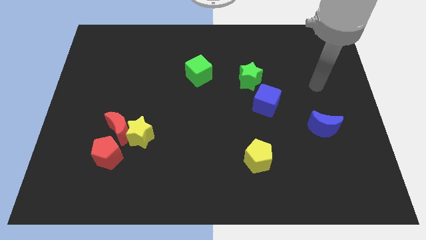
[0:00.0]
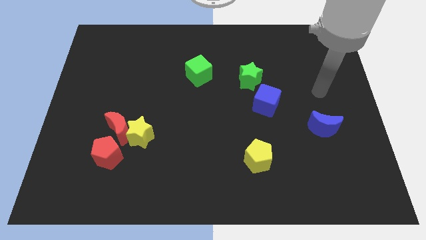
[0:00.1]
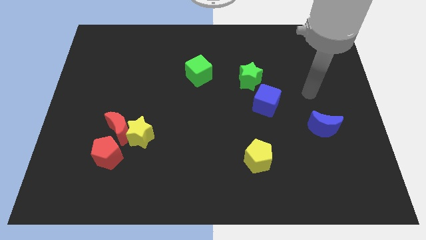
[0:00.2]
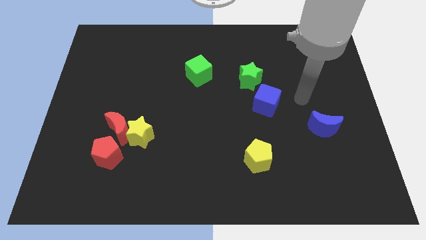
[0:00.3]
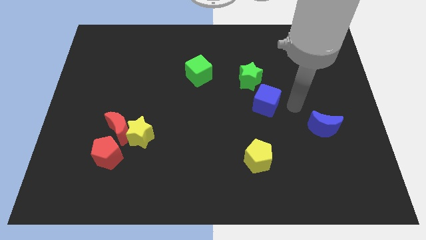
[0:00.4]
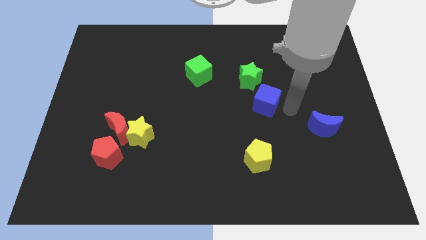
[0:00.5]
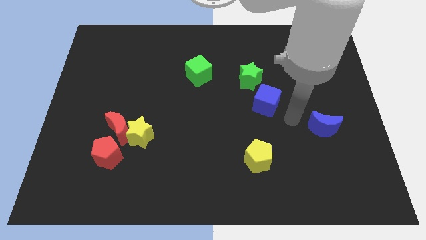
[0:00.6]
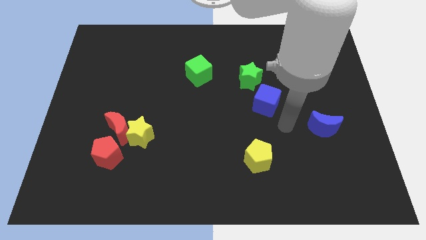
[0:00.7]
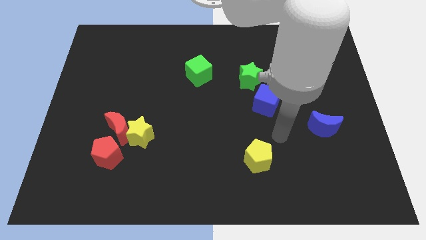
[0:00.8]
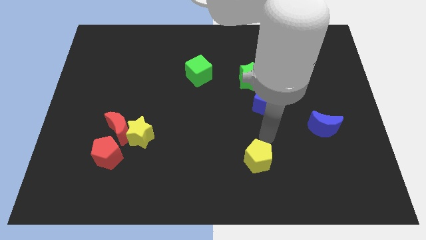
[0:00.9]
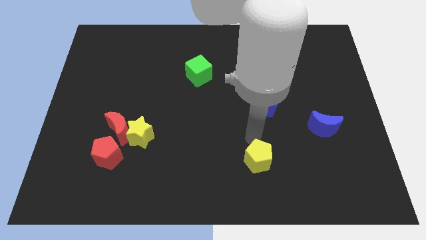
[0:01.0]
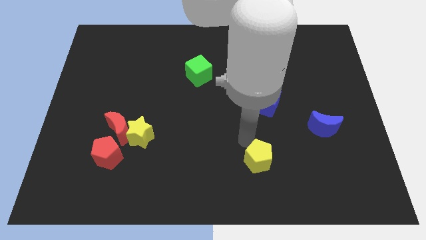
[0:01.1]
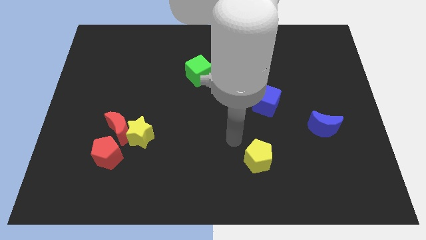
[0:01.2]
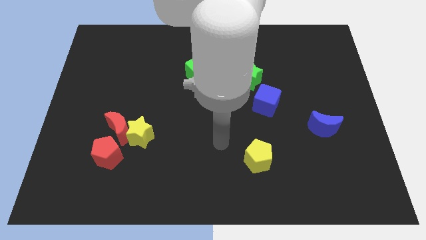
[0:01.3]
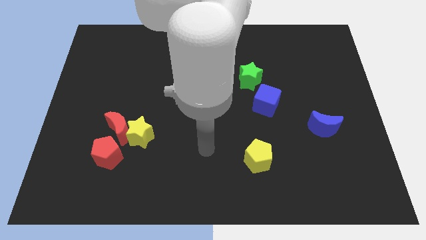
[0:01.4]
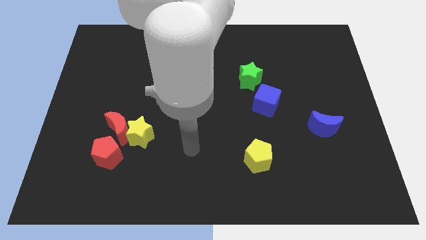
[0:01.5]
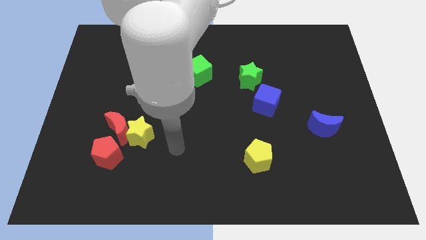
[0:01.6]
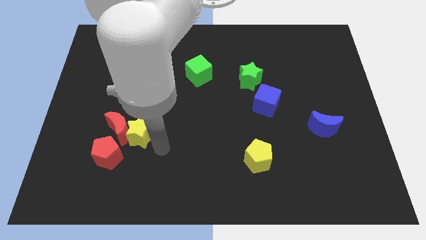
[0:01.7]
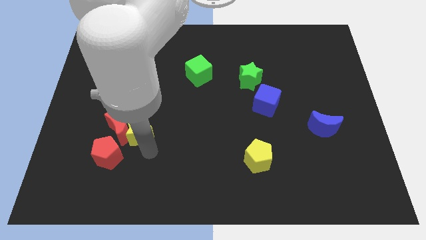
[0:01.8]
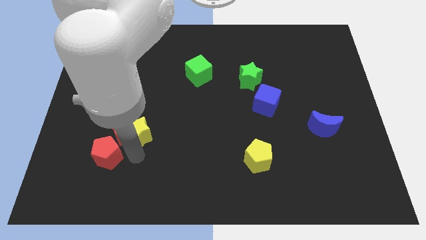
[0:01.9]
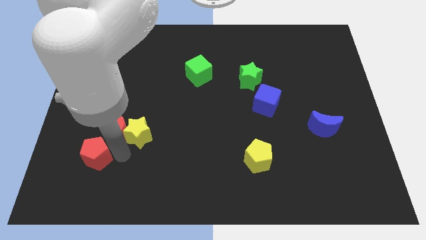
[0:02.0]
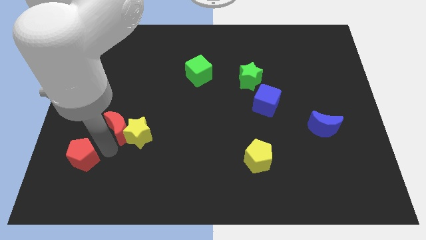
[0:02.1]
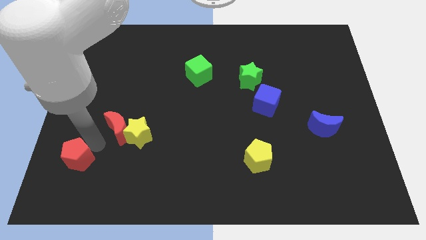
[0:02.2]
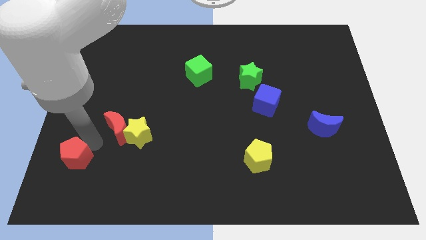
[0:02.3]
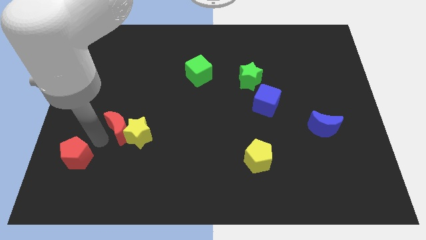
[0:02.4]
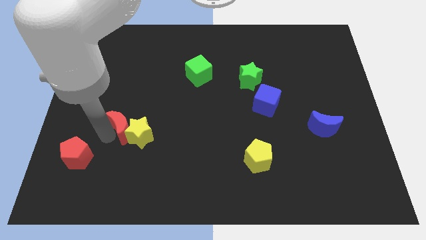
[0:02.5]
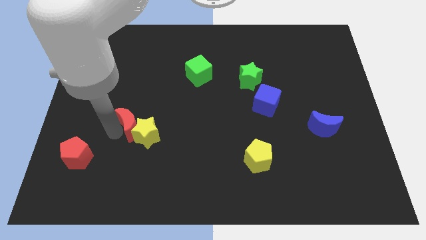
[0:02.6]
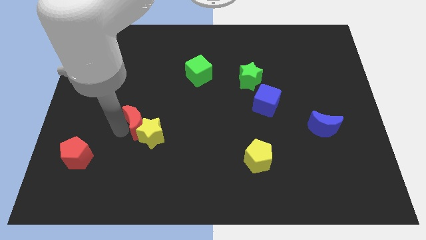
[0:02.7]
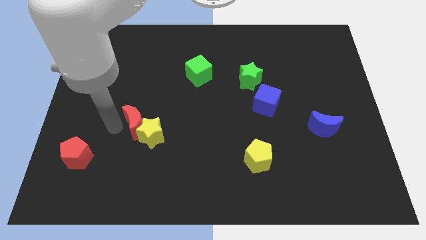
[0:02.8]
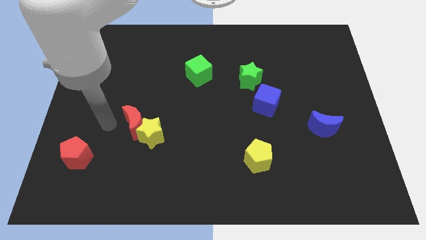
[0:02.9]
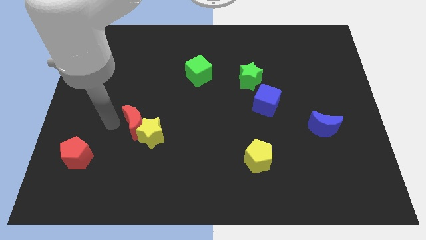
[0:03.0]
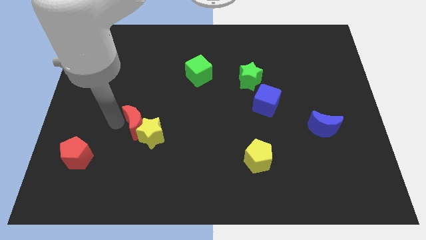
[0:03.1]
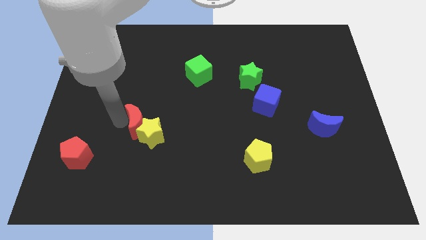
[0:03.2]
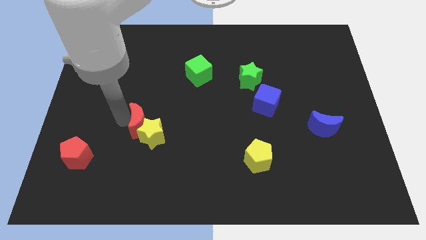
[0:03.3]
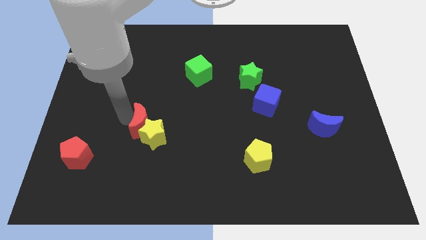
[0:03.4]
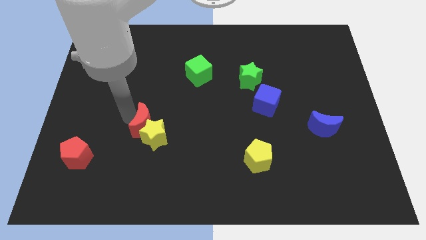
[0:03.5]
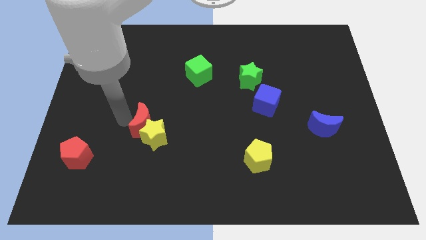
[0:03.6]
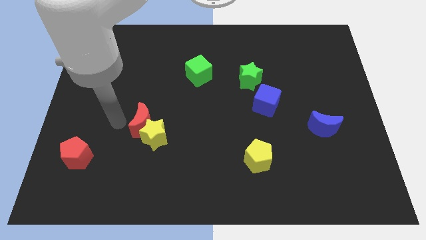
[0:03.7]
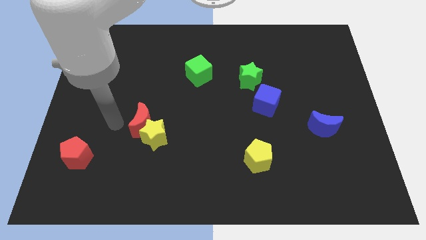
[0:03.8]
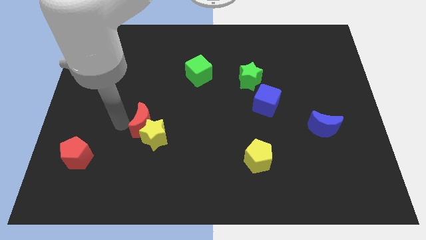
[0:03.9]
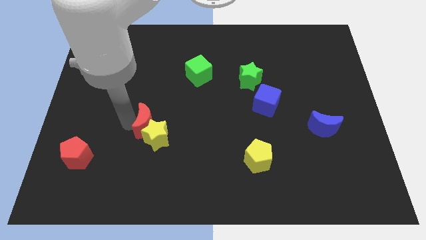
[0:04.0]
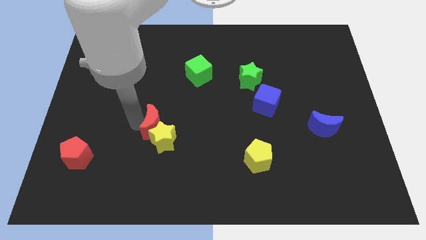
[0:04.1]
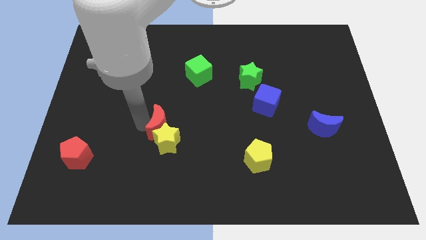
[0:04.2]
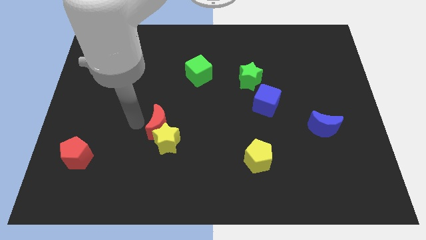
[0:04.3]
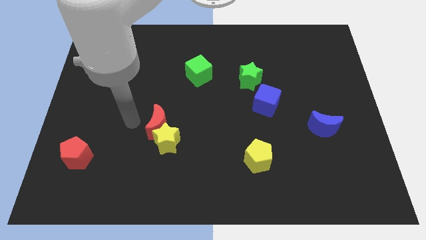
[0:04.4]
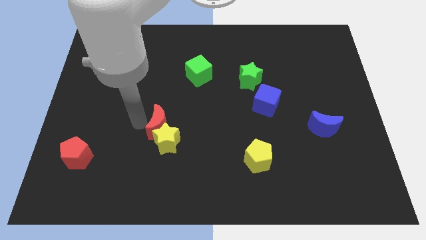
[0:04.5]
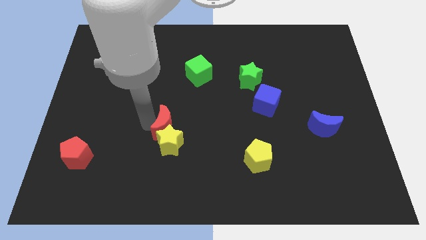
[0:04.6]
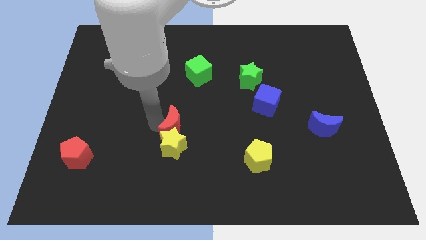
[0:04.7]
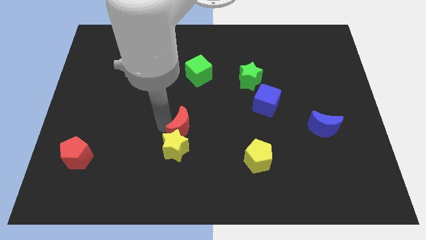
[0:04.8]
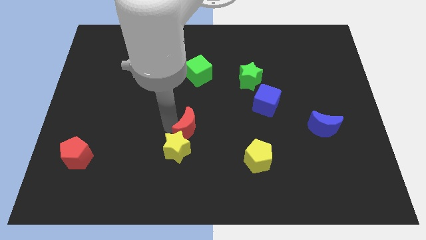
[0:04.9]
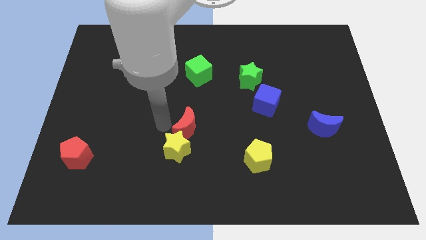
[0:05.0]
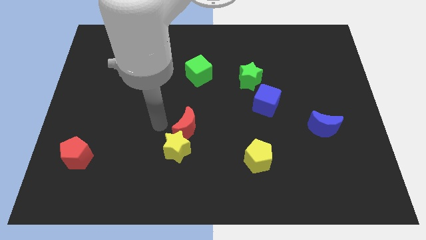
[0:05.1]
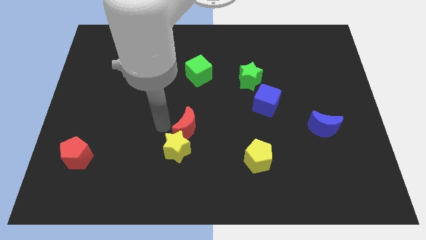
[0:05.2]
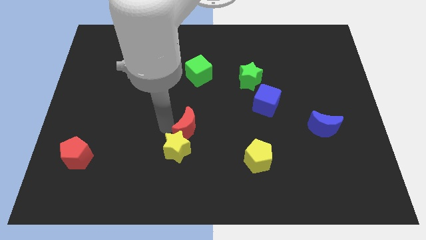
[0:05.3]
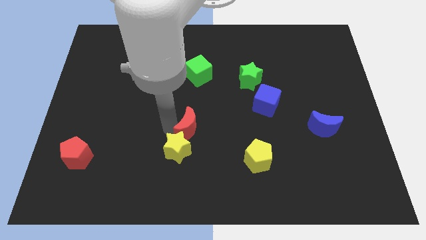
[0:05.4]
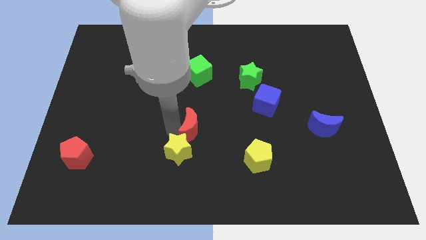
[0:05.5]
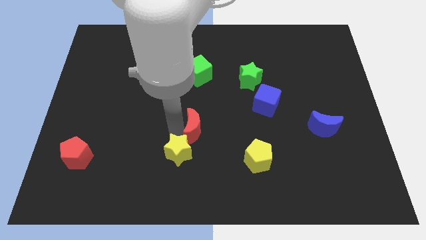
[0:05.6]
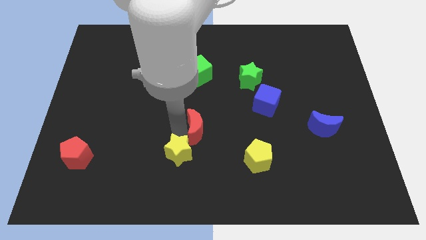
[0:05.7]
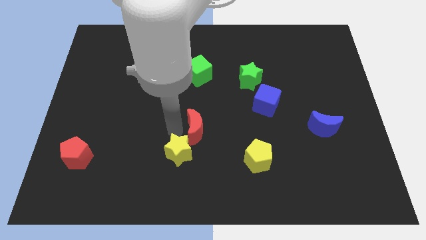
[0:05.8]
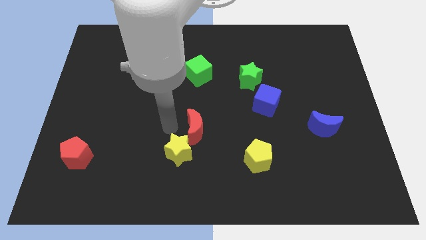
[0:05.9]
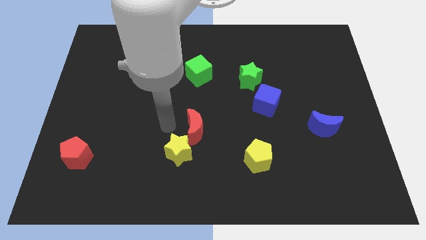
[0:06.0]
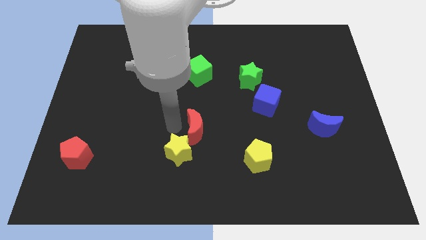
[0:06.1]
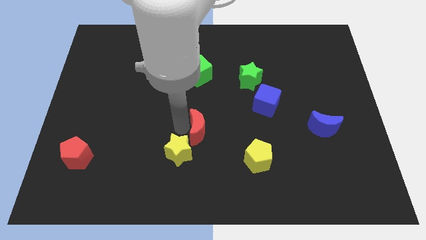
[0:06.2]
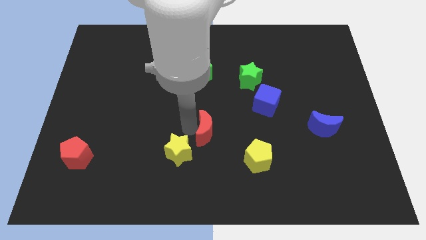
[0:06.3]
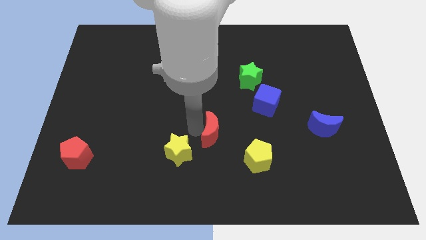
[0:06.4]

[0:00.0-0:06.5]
move the red moon right

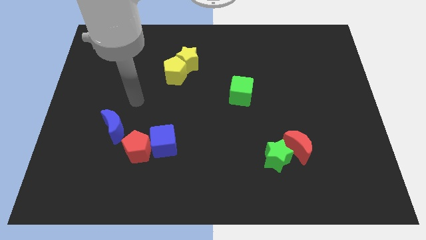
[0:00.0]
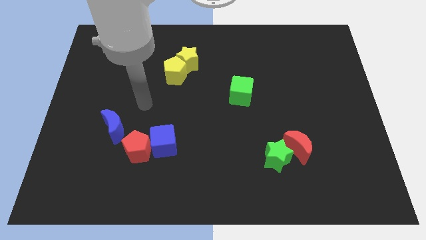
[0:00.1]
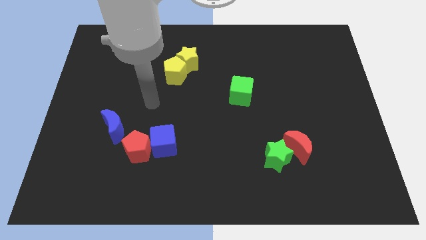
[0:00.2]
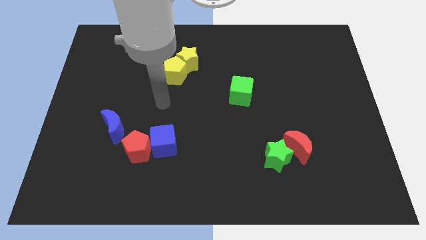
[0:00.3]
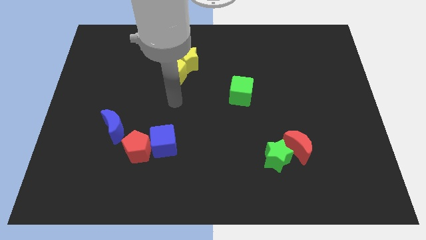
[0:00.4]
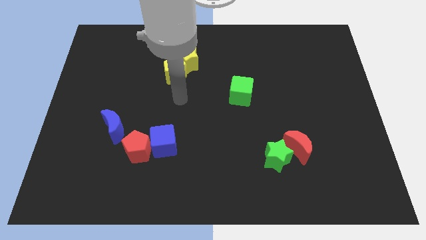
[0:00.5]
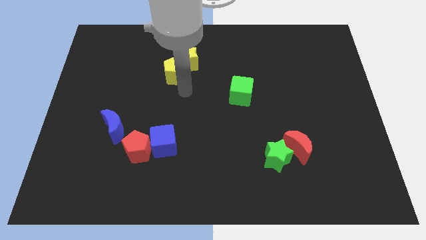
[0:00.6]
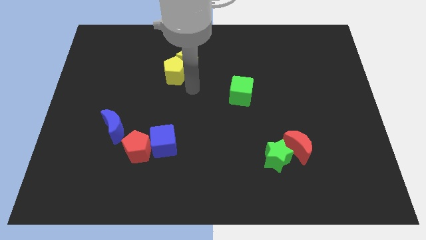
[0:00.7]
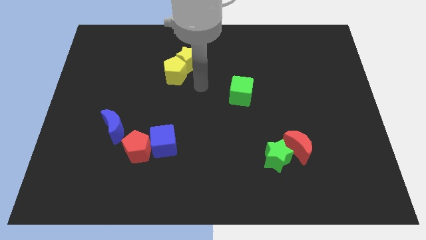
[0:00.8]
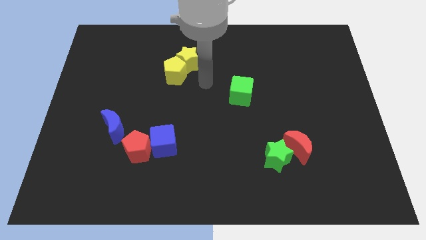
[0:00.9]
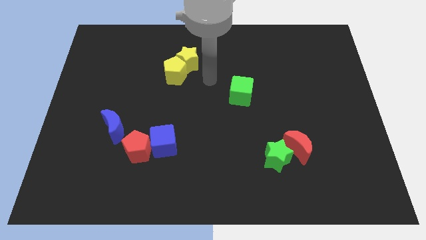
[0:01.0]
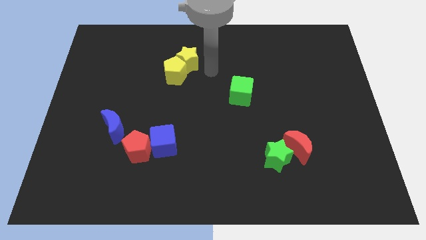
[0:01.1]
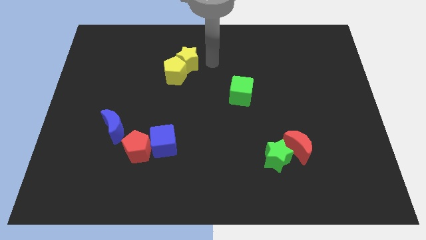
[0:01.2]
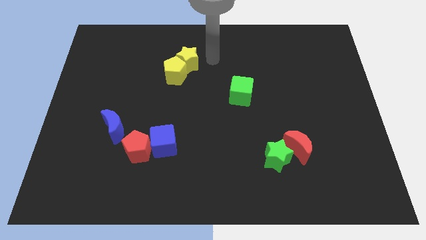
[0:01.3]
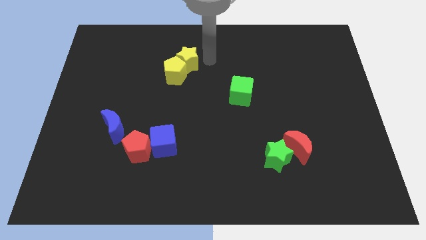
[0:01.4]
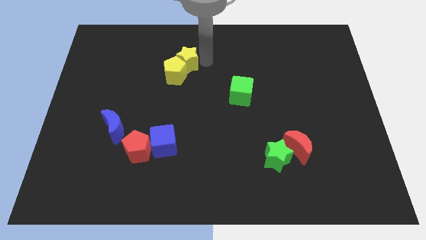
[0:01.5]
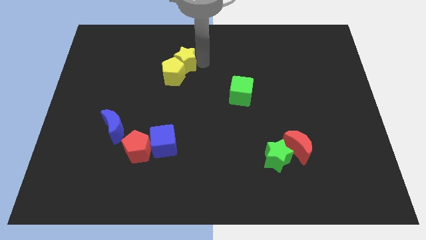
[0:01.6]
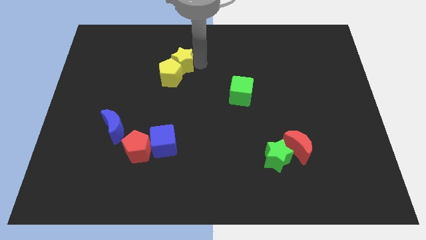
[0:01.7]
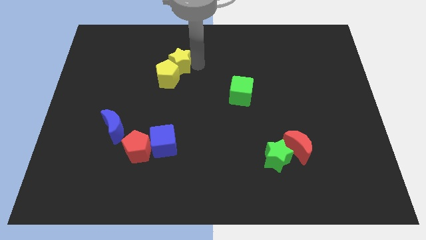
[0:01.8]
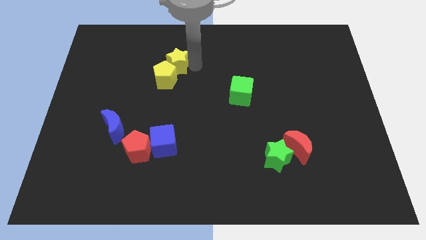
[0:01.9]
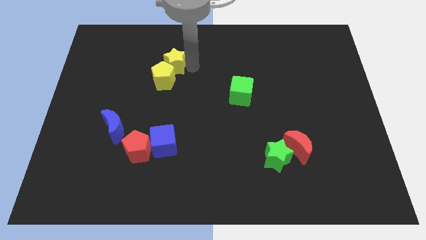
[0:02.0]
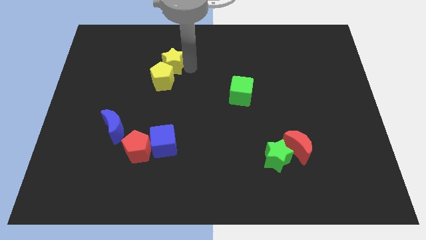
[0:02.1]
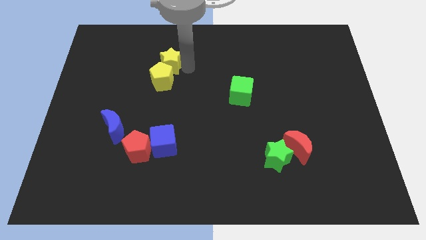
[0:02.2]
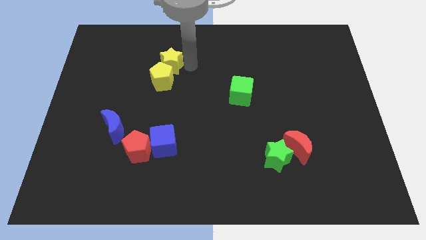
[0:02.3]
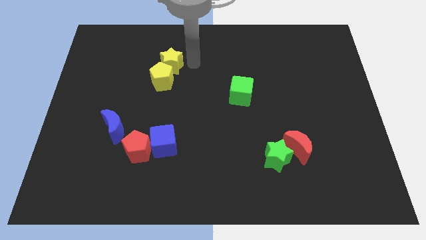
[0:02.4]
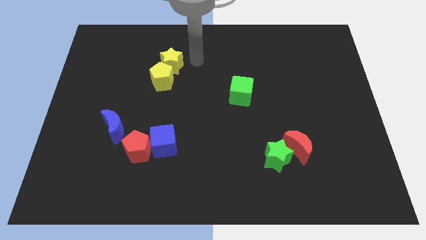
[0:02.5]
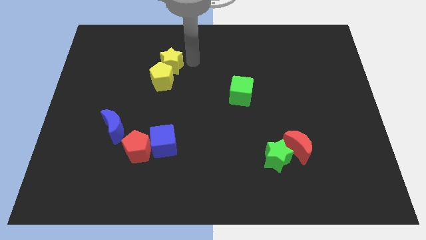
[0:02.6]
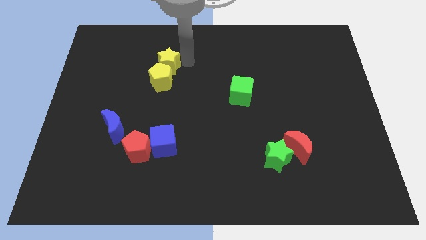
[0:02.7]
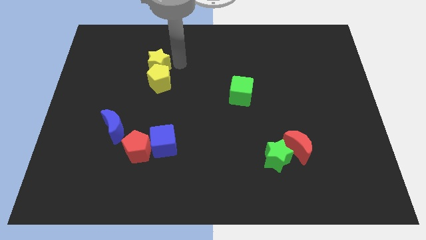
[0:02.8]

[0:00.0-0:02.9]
move the yellow star to the left a little
